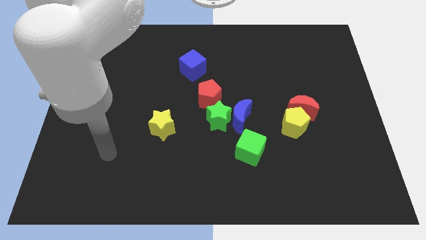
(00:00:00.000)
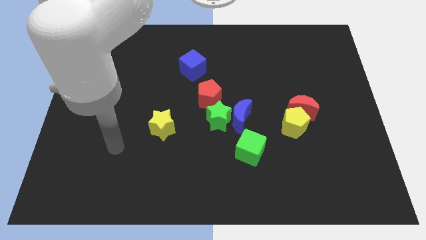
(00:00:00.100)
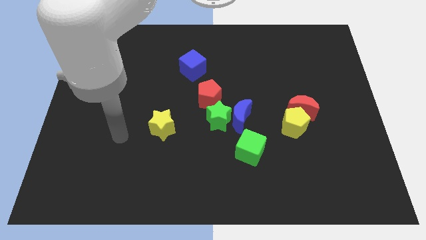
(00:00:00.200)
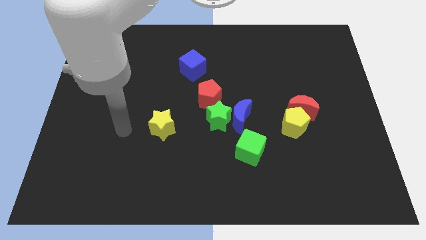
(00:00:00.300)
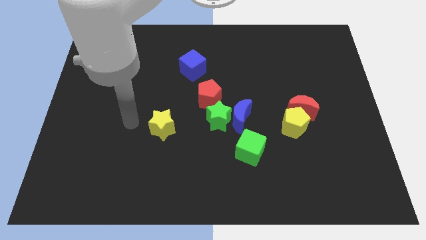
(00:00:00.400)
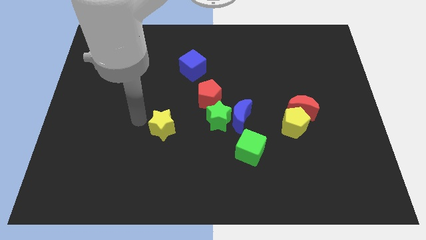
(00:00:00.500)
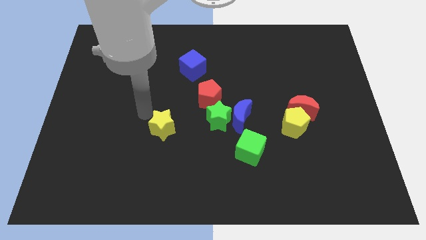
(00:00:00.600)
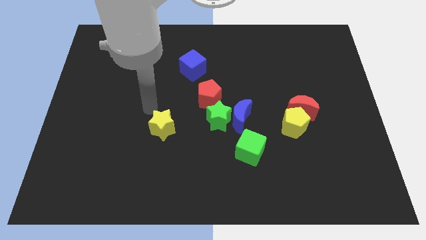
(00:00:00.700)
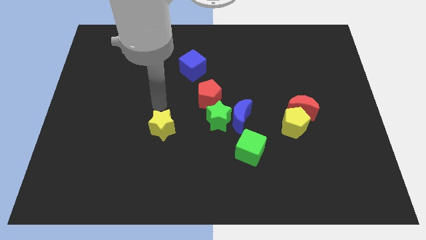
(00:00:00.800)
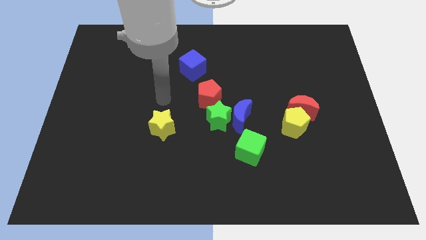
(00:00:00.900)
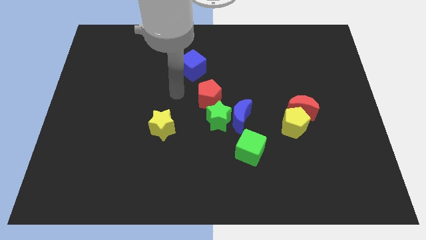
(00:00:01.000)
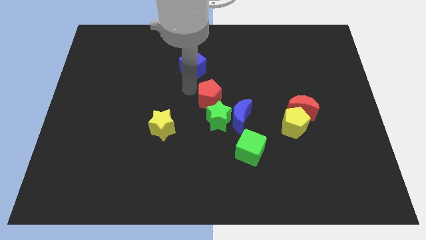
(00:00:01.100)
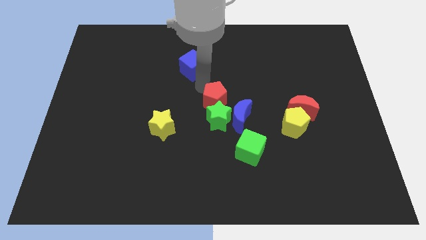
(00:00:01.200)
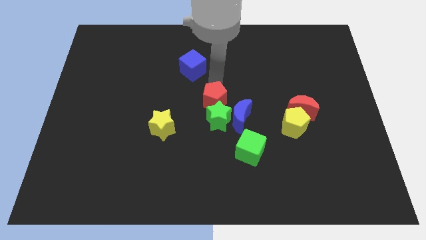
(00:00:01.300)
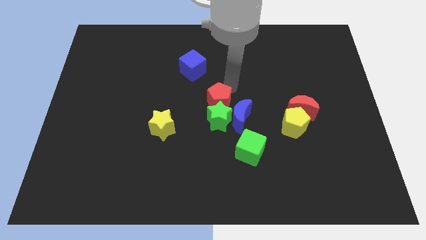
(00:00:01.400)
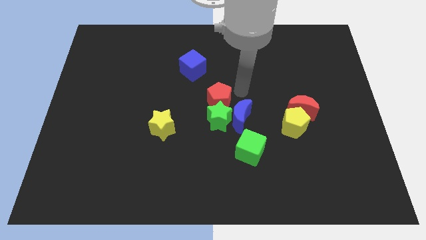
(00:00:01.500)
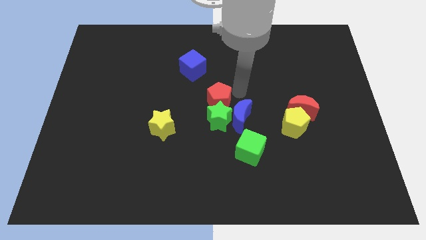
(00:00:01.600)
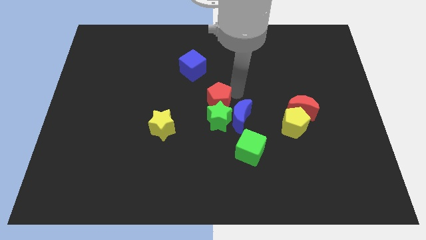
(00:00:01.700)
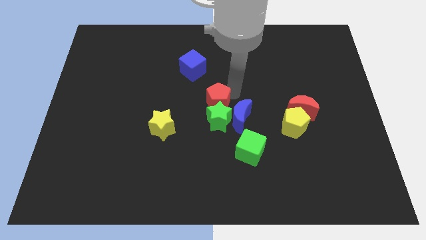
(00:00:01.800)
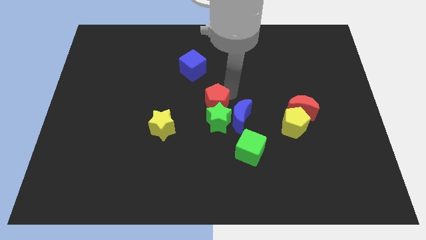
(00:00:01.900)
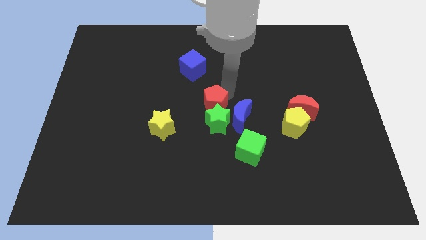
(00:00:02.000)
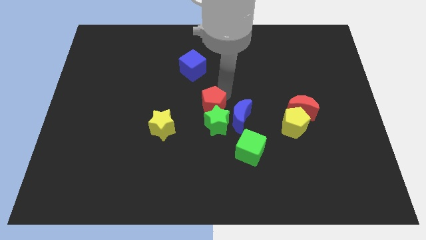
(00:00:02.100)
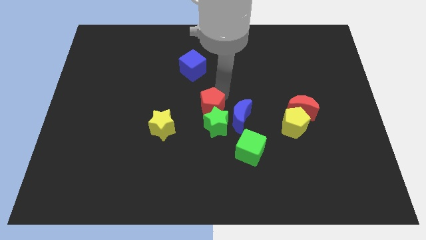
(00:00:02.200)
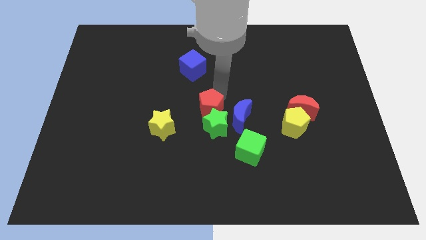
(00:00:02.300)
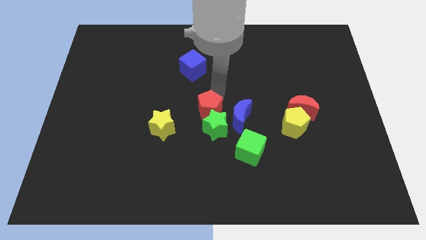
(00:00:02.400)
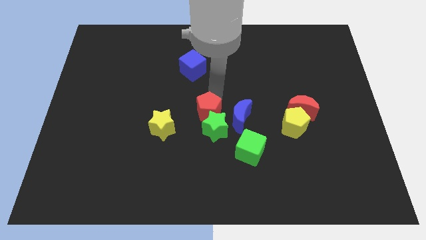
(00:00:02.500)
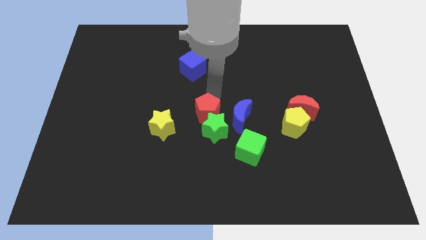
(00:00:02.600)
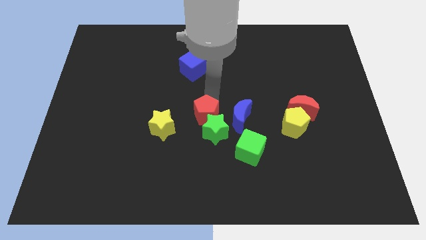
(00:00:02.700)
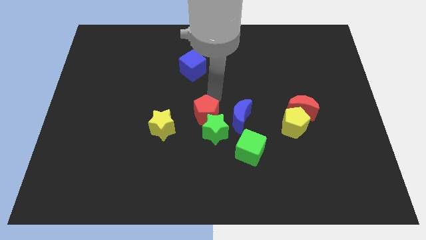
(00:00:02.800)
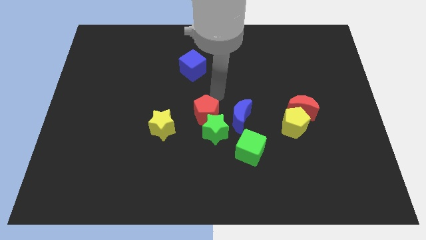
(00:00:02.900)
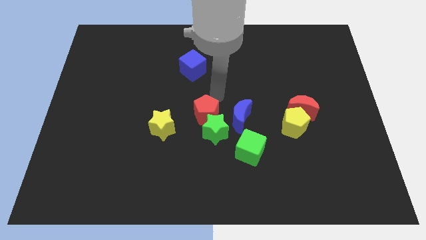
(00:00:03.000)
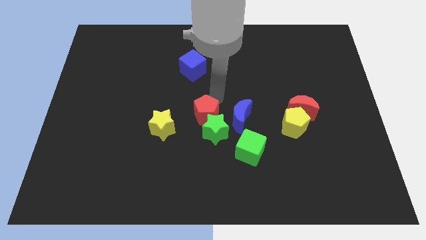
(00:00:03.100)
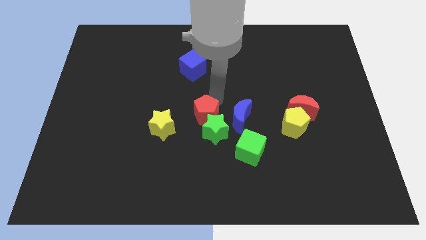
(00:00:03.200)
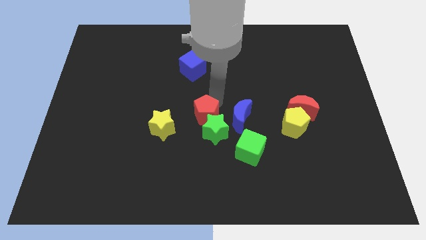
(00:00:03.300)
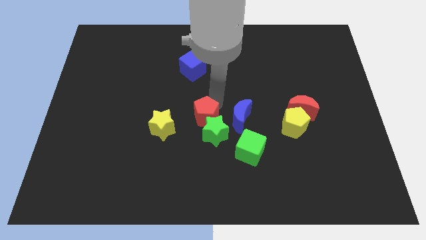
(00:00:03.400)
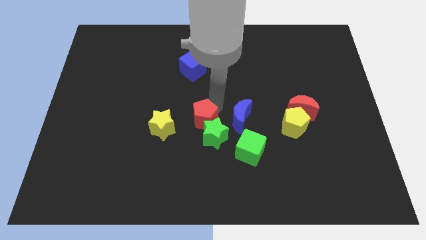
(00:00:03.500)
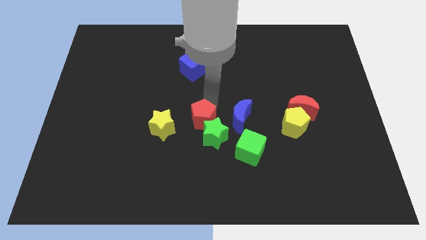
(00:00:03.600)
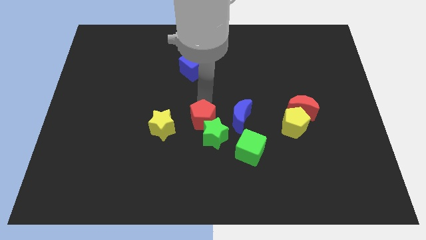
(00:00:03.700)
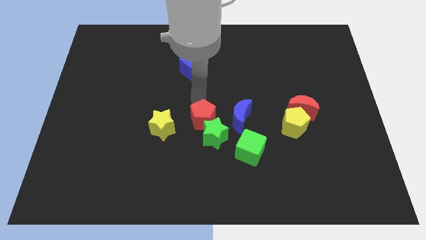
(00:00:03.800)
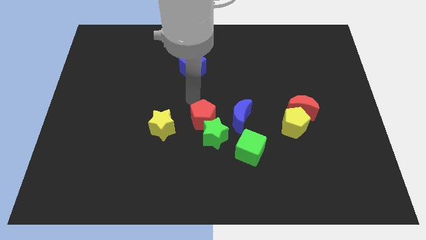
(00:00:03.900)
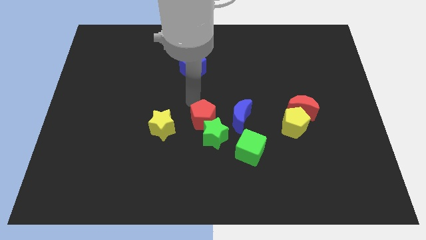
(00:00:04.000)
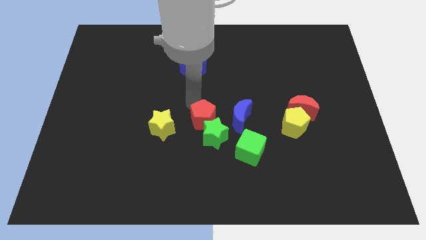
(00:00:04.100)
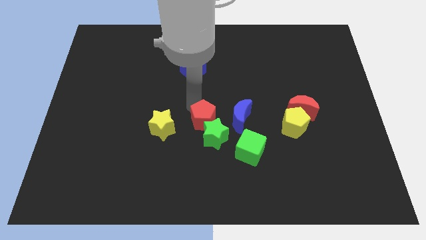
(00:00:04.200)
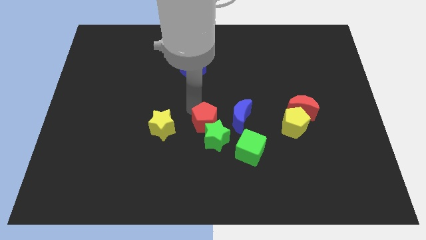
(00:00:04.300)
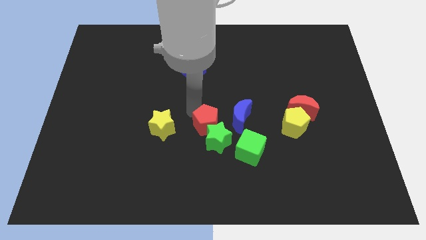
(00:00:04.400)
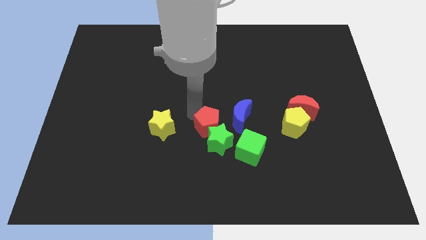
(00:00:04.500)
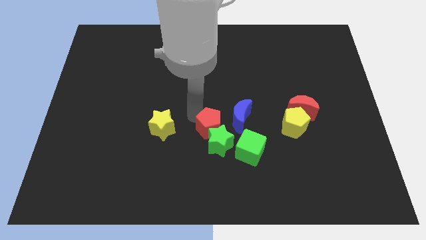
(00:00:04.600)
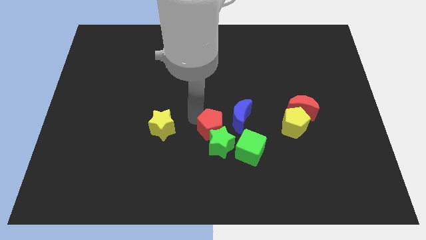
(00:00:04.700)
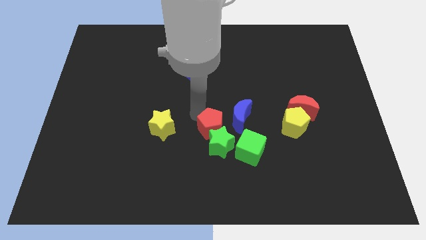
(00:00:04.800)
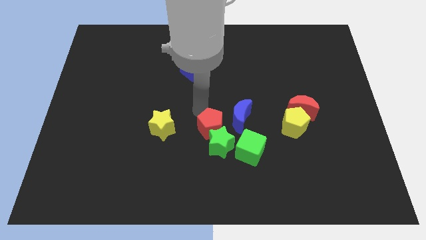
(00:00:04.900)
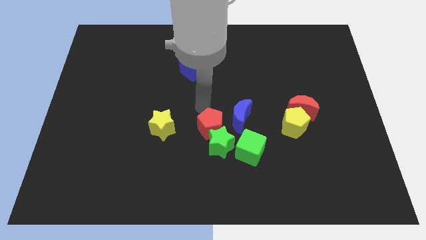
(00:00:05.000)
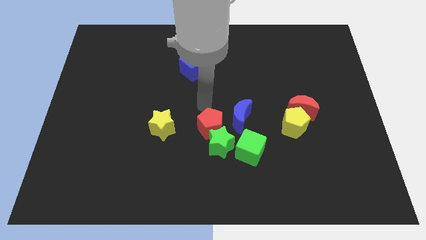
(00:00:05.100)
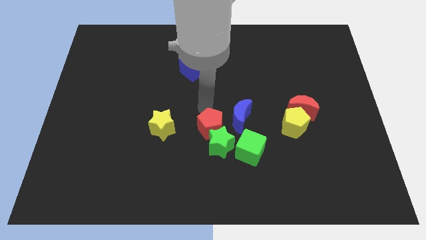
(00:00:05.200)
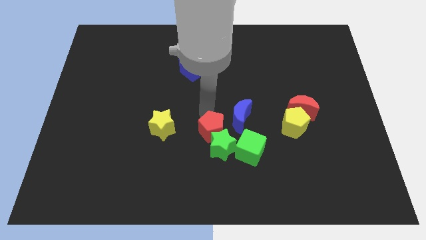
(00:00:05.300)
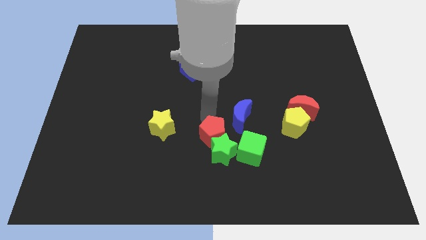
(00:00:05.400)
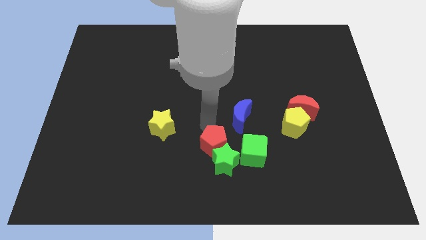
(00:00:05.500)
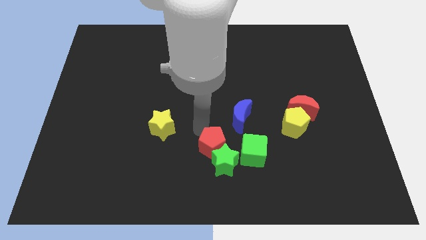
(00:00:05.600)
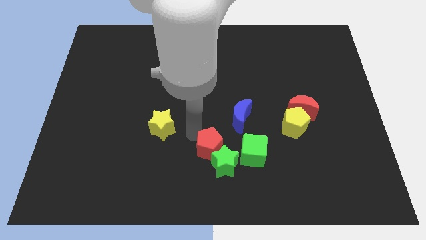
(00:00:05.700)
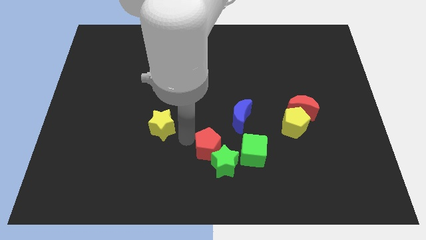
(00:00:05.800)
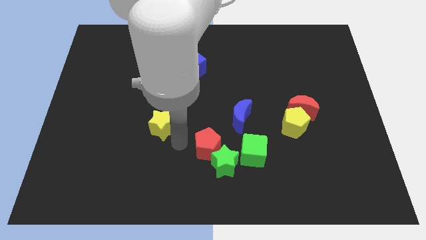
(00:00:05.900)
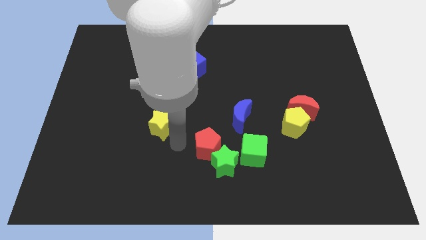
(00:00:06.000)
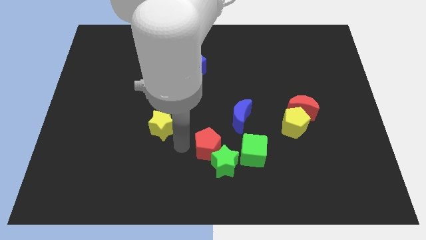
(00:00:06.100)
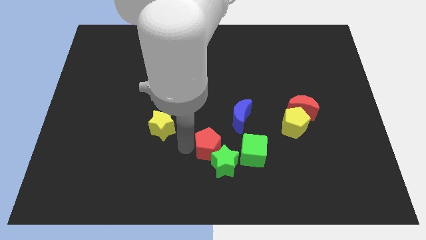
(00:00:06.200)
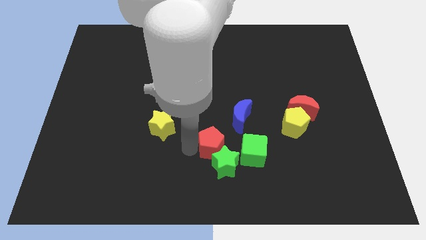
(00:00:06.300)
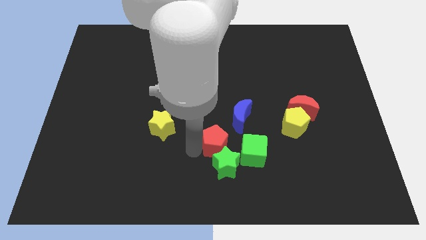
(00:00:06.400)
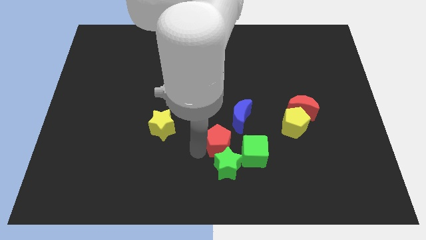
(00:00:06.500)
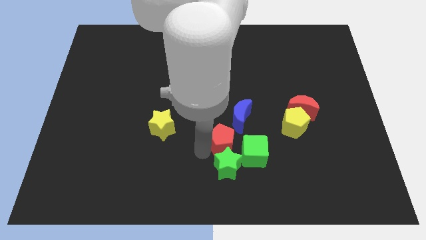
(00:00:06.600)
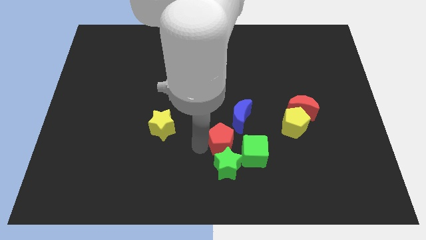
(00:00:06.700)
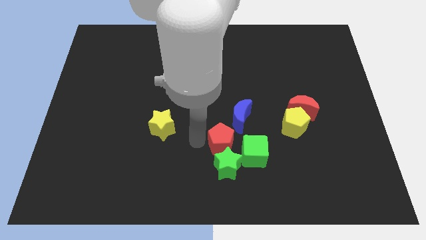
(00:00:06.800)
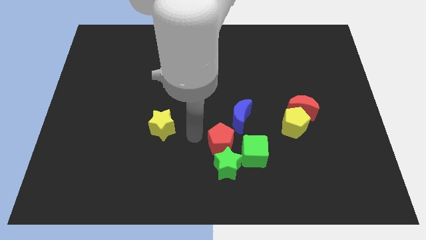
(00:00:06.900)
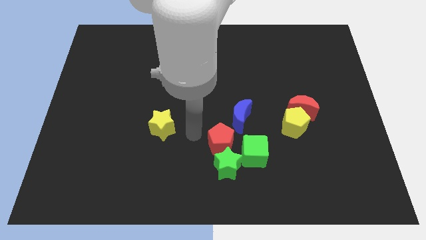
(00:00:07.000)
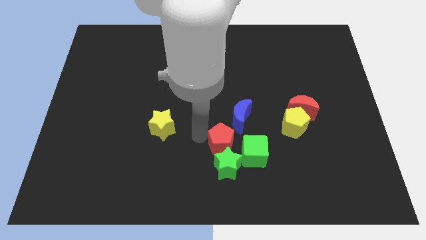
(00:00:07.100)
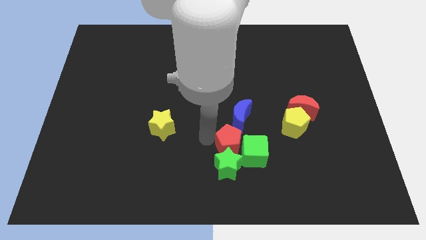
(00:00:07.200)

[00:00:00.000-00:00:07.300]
put the red pentagon next to the green cube

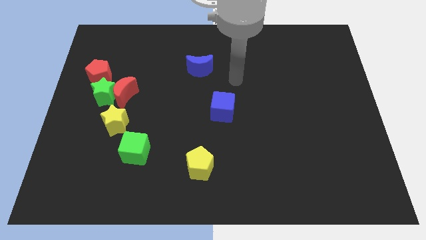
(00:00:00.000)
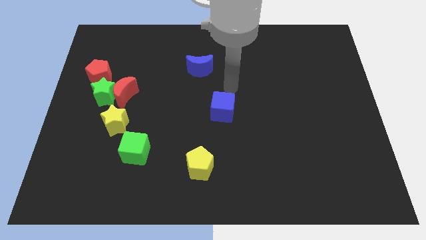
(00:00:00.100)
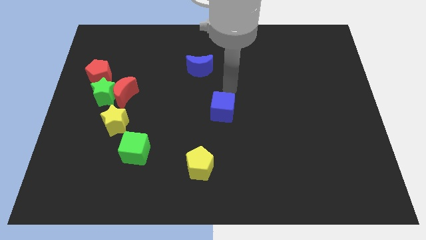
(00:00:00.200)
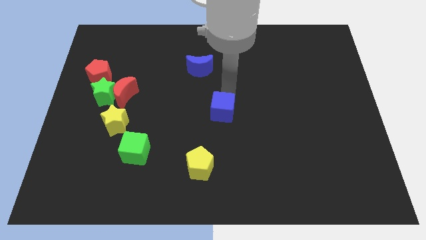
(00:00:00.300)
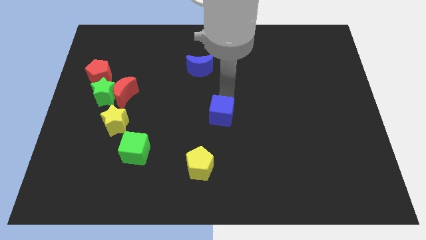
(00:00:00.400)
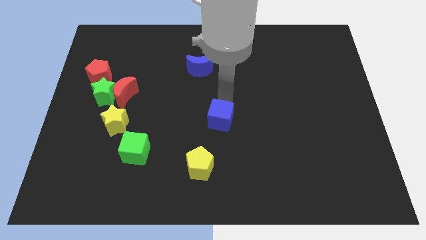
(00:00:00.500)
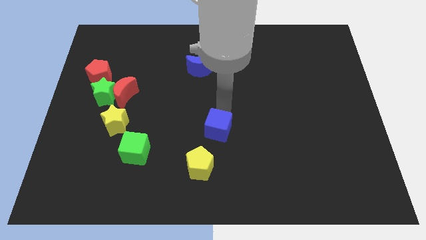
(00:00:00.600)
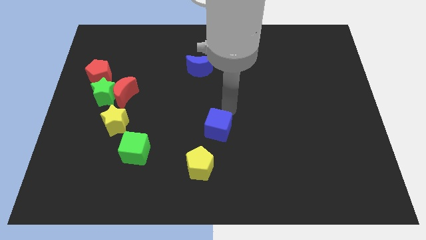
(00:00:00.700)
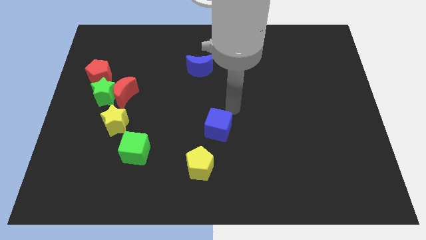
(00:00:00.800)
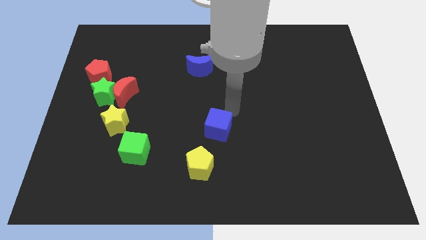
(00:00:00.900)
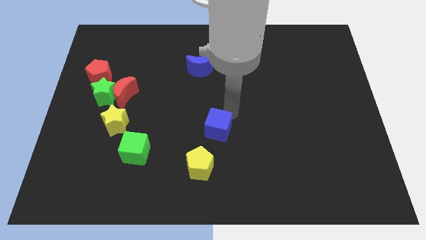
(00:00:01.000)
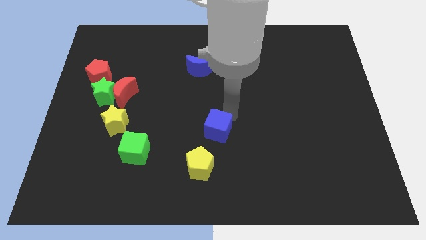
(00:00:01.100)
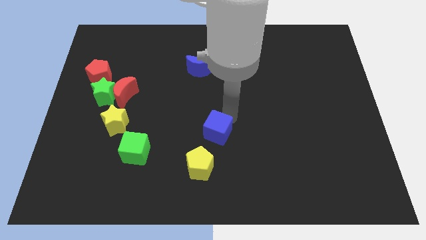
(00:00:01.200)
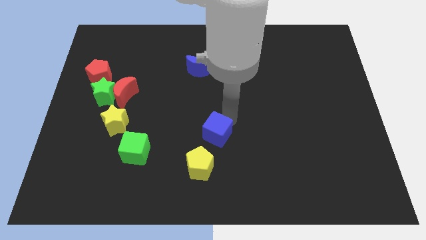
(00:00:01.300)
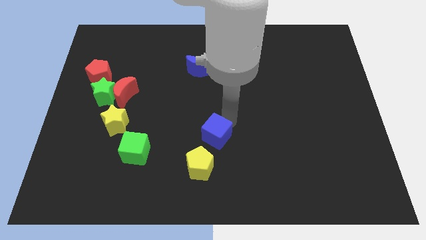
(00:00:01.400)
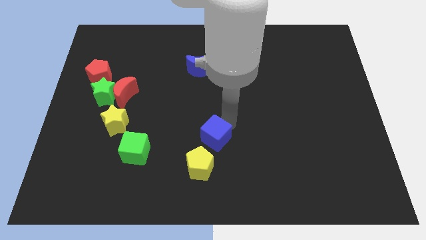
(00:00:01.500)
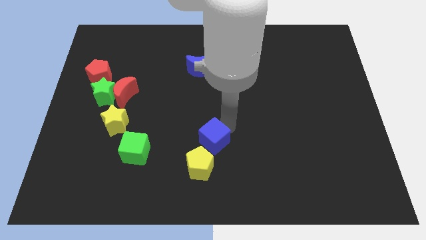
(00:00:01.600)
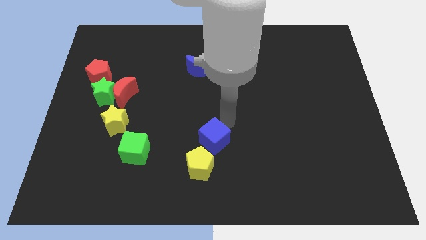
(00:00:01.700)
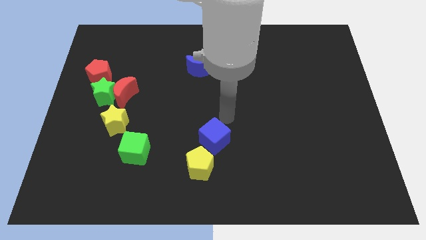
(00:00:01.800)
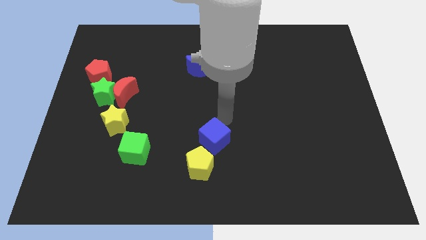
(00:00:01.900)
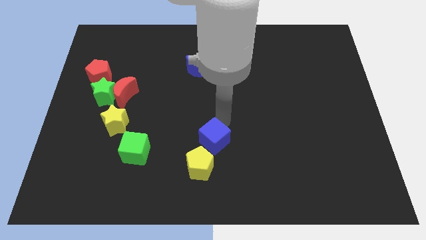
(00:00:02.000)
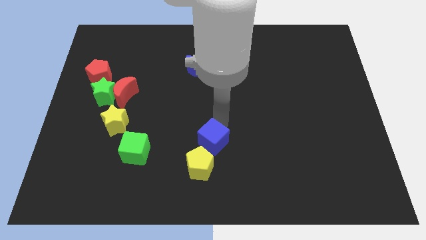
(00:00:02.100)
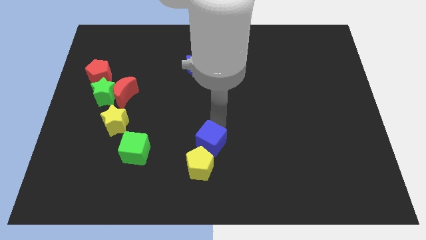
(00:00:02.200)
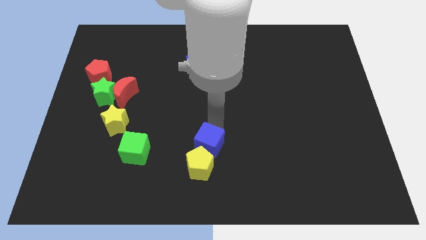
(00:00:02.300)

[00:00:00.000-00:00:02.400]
push the blue cube to the yellow pentagon
